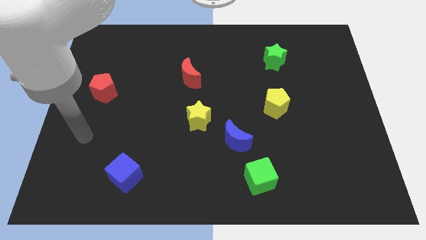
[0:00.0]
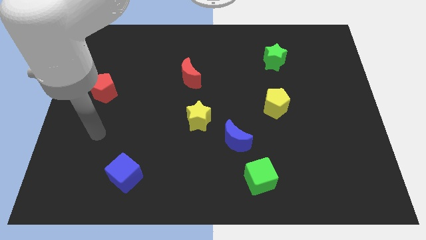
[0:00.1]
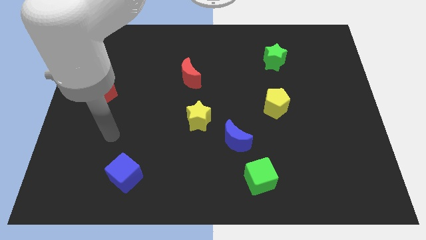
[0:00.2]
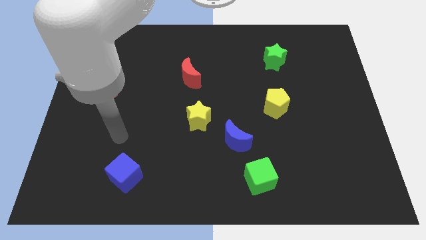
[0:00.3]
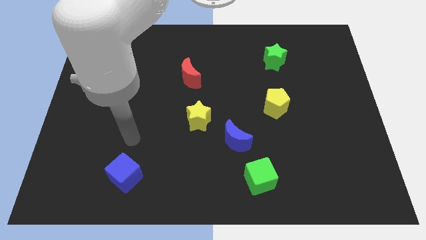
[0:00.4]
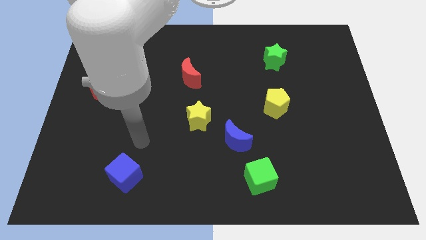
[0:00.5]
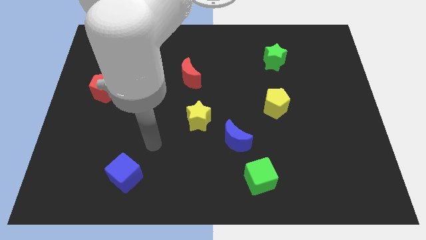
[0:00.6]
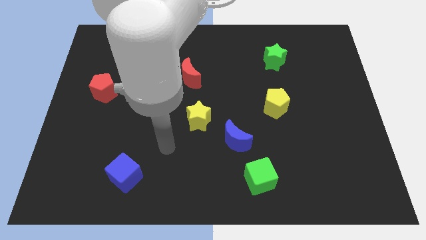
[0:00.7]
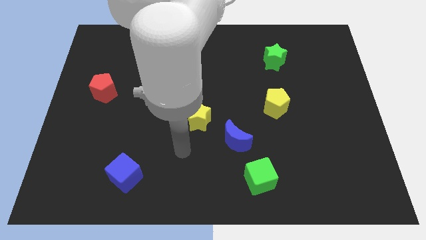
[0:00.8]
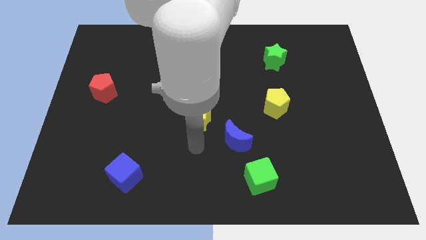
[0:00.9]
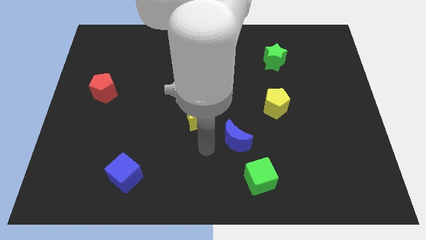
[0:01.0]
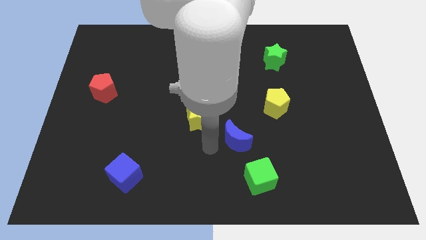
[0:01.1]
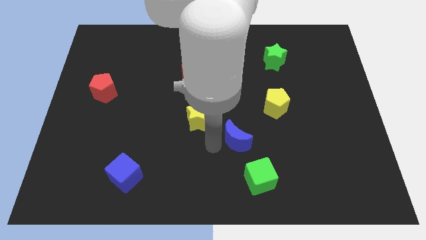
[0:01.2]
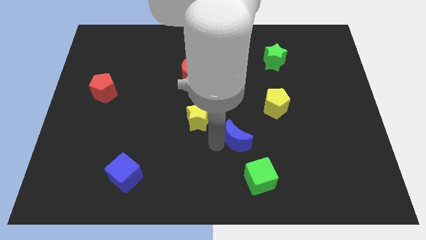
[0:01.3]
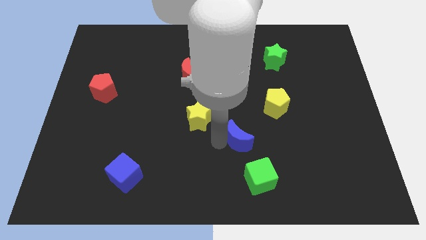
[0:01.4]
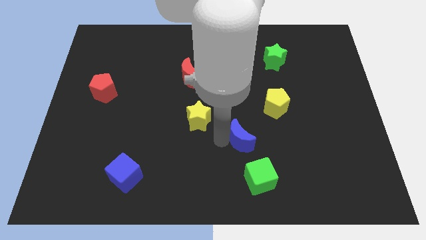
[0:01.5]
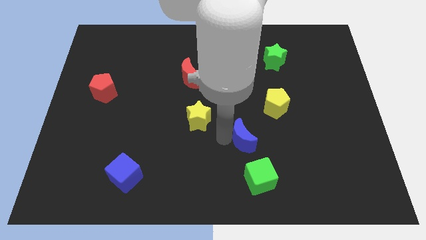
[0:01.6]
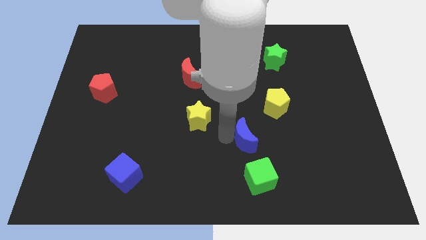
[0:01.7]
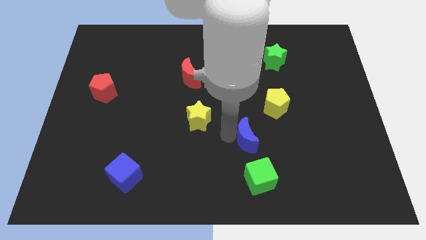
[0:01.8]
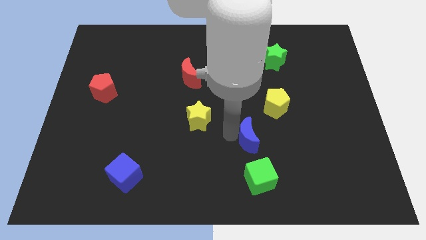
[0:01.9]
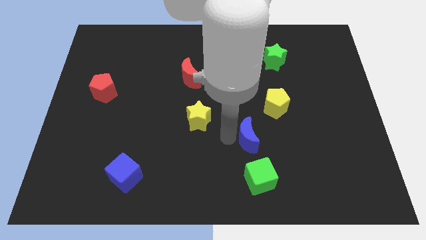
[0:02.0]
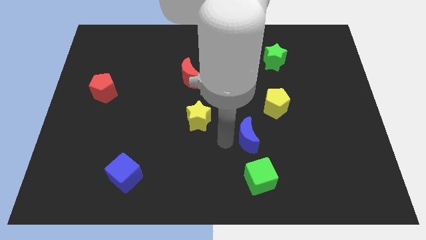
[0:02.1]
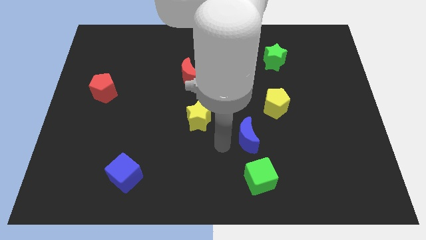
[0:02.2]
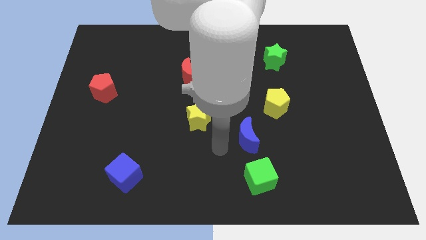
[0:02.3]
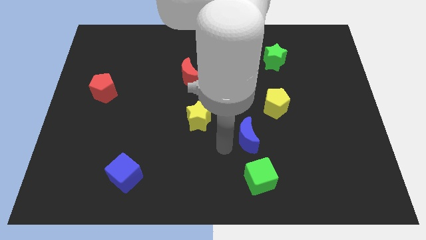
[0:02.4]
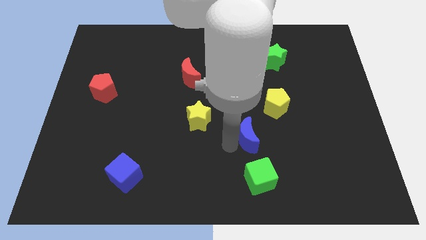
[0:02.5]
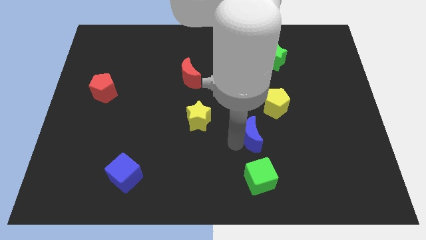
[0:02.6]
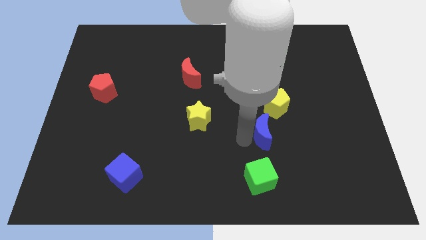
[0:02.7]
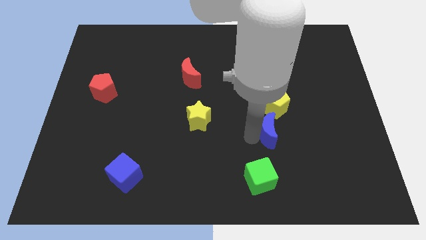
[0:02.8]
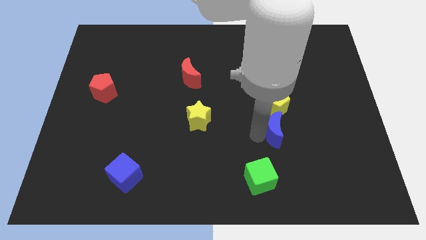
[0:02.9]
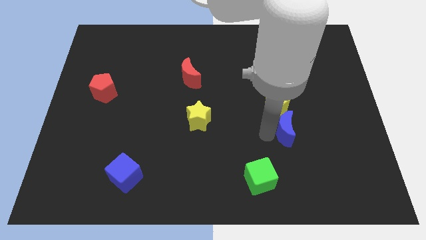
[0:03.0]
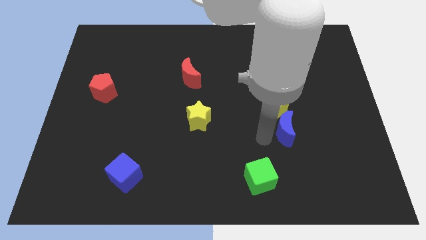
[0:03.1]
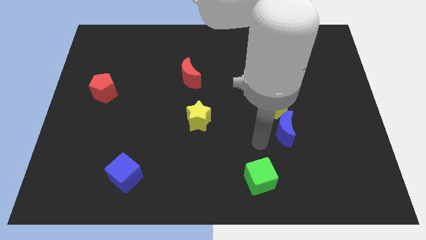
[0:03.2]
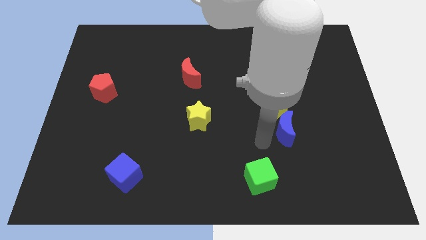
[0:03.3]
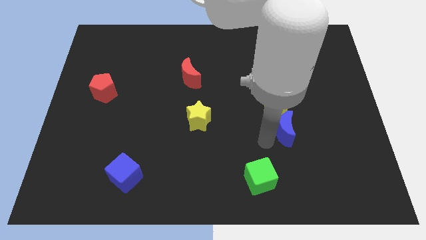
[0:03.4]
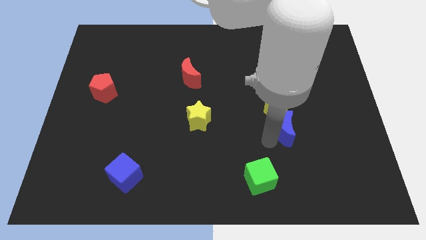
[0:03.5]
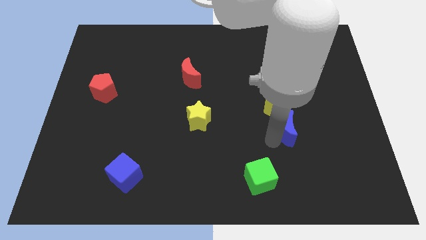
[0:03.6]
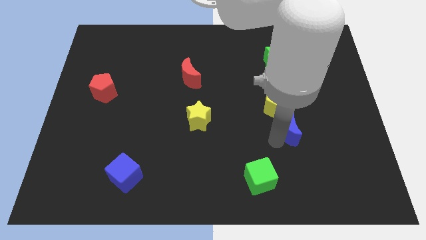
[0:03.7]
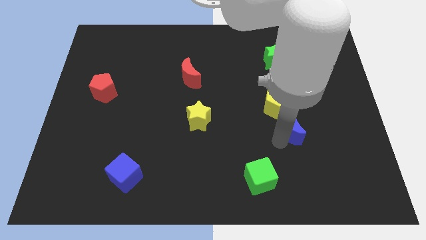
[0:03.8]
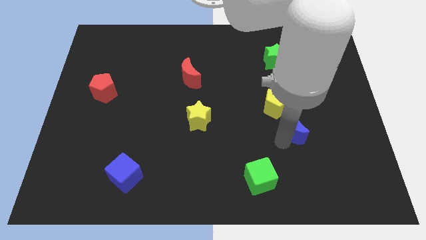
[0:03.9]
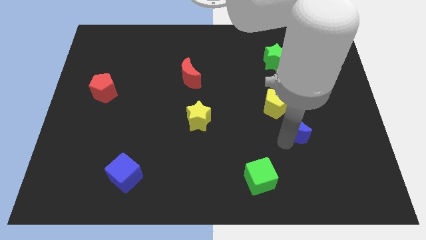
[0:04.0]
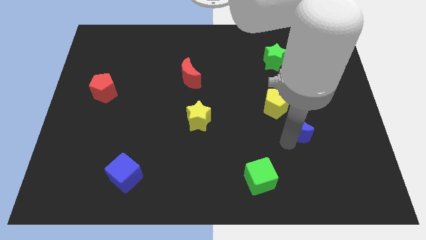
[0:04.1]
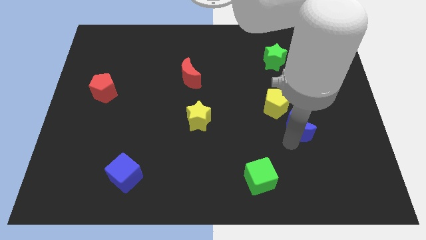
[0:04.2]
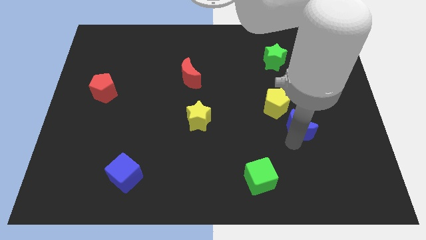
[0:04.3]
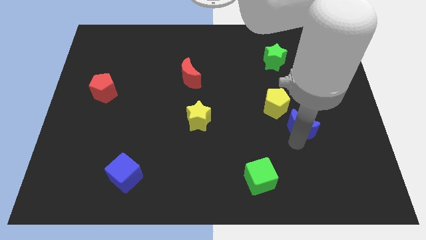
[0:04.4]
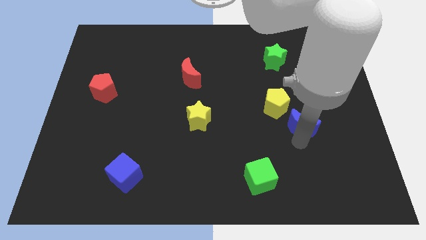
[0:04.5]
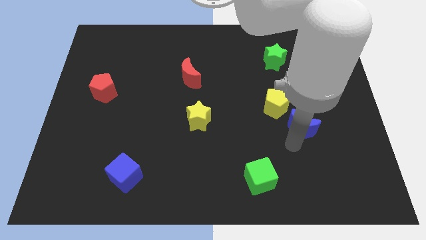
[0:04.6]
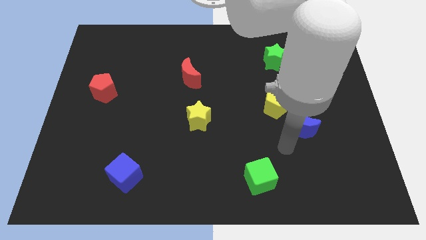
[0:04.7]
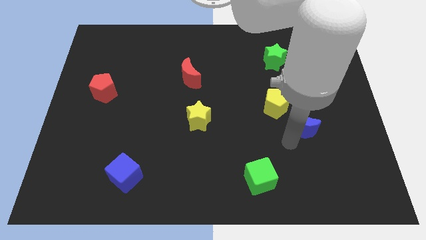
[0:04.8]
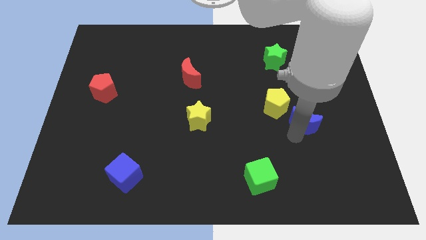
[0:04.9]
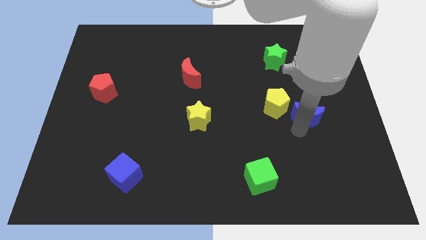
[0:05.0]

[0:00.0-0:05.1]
put the blue moon just right of the yellow pentagon

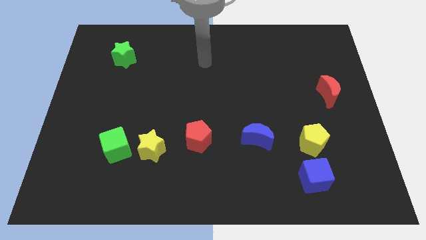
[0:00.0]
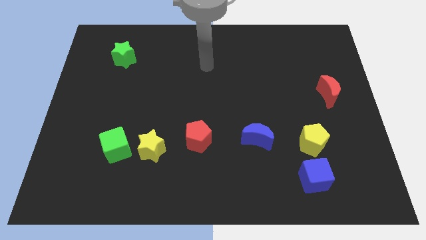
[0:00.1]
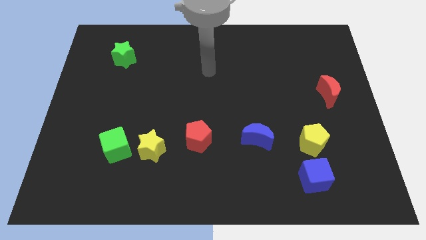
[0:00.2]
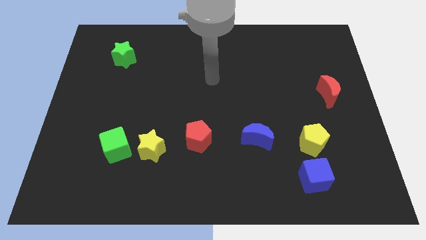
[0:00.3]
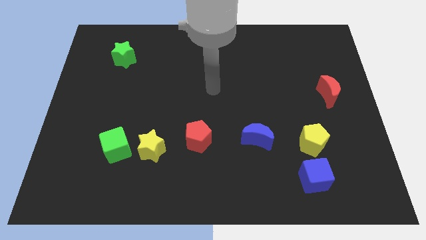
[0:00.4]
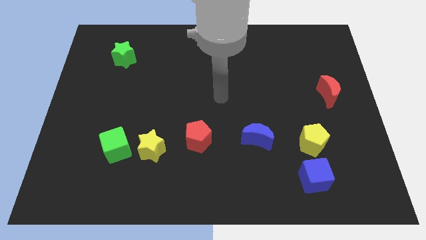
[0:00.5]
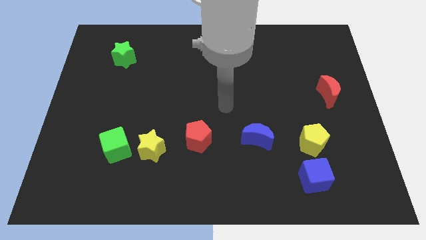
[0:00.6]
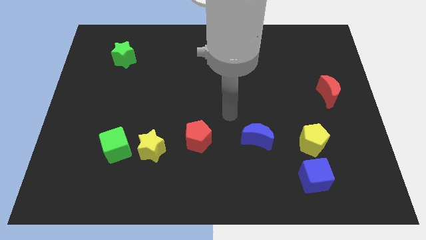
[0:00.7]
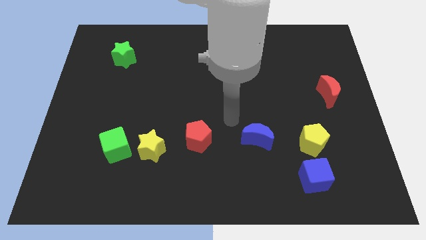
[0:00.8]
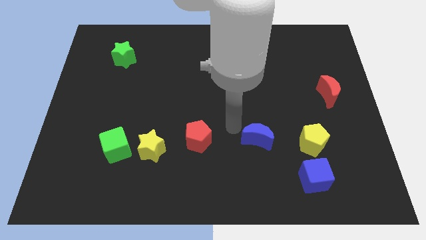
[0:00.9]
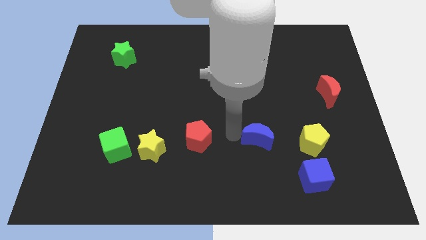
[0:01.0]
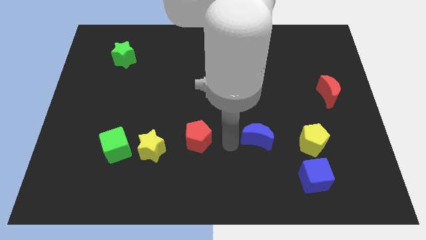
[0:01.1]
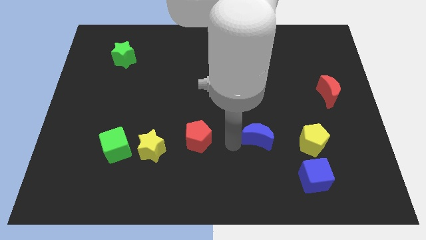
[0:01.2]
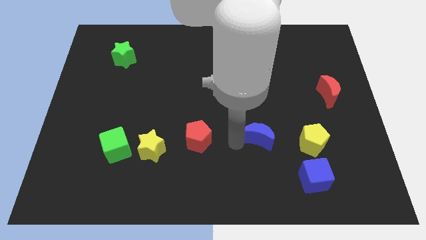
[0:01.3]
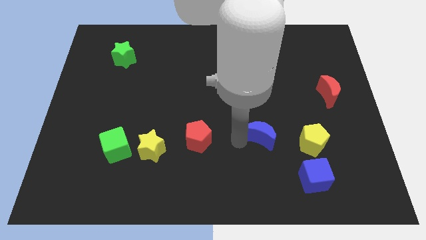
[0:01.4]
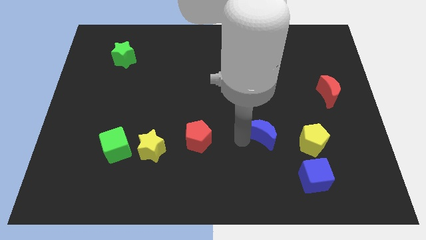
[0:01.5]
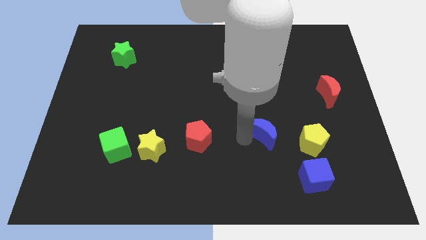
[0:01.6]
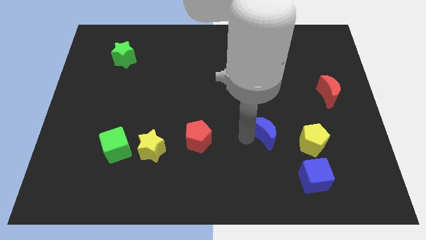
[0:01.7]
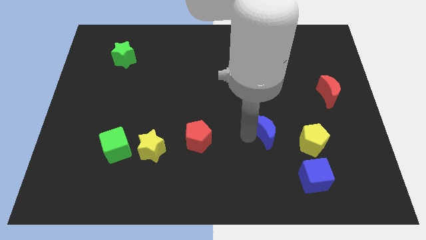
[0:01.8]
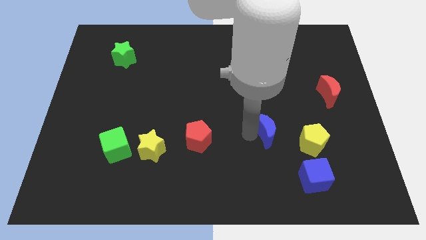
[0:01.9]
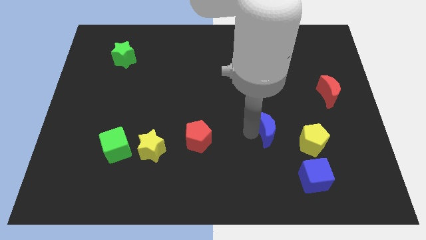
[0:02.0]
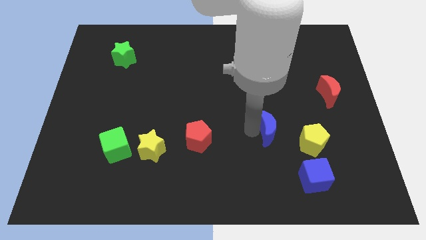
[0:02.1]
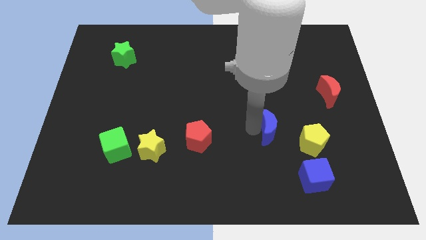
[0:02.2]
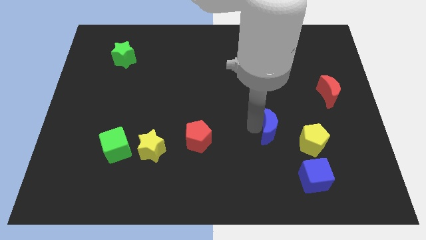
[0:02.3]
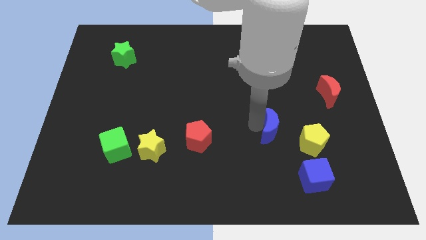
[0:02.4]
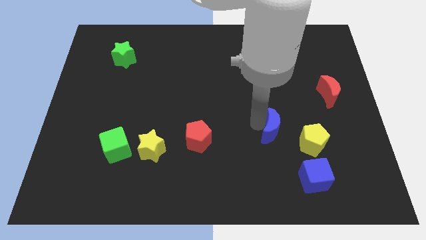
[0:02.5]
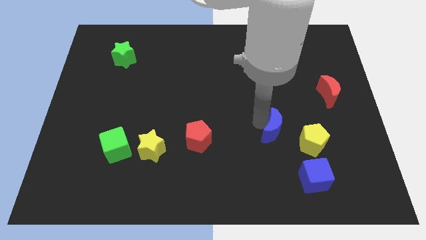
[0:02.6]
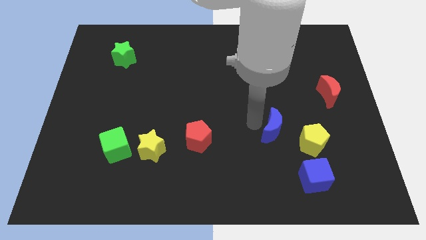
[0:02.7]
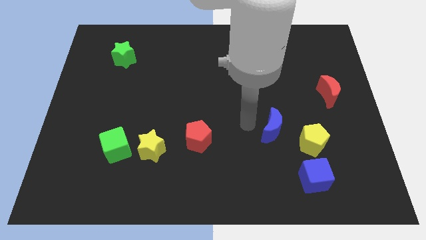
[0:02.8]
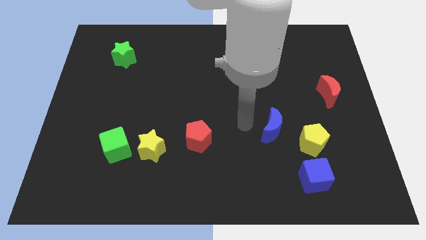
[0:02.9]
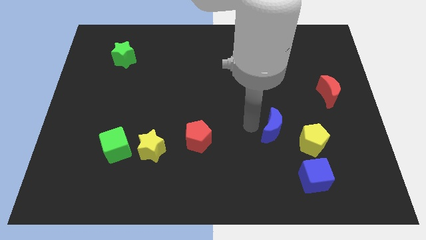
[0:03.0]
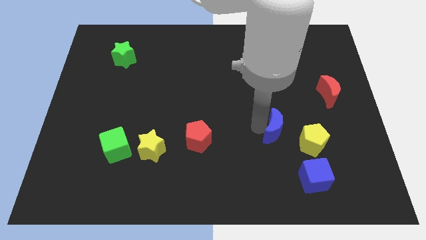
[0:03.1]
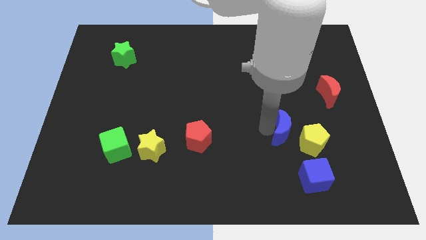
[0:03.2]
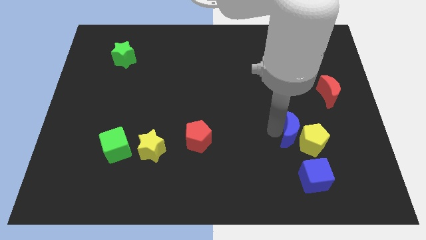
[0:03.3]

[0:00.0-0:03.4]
slide the blue moon above the blue cube
